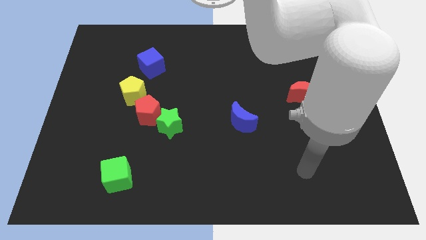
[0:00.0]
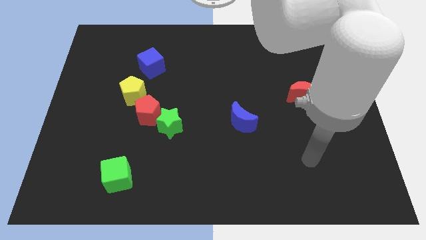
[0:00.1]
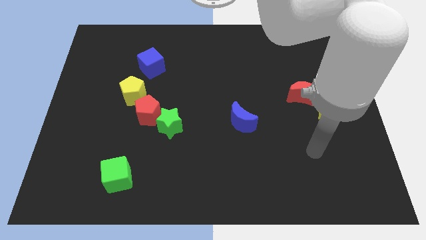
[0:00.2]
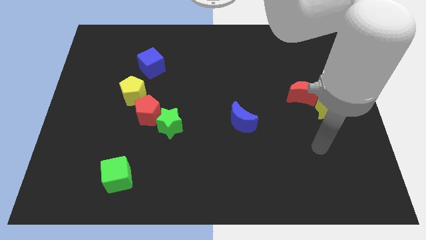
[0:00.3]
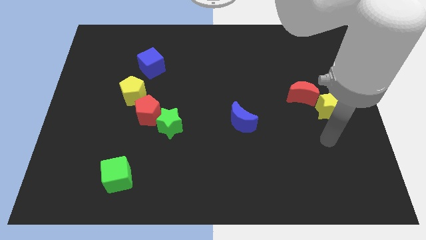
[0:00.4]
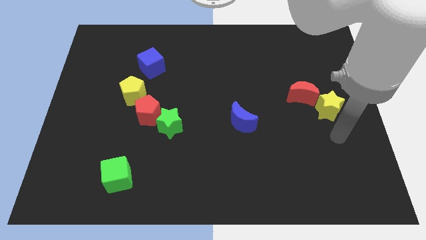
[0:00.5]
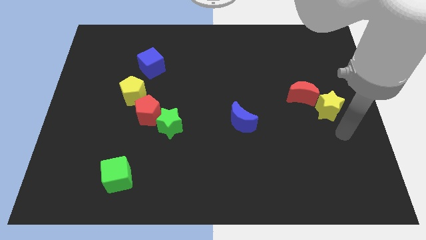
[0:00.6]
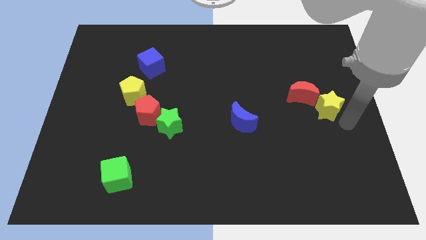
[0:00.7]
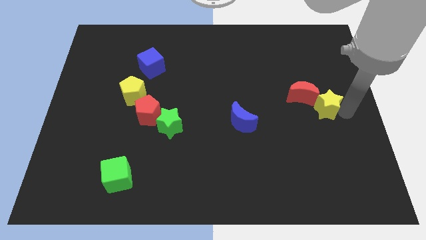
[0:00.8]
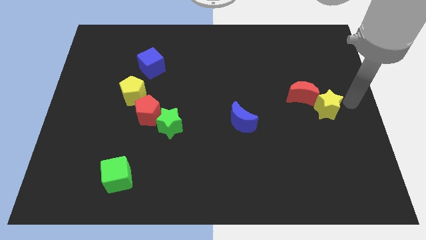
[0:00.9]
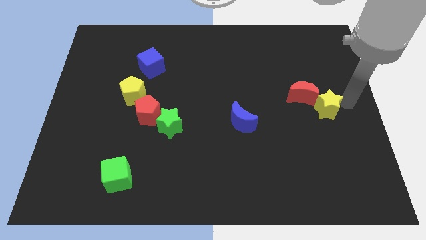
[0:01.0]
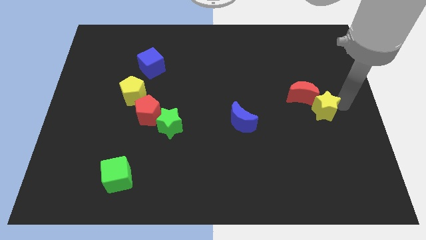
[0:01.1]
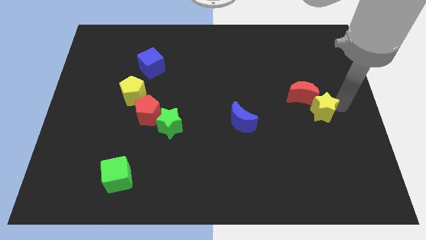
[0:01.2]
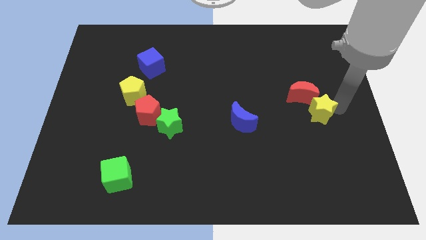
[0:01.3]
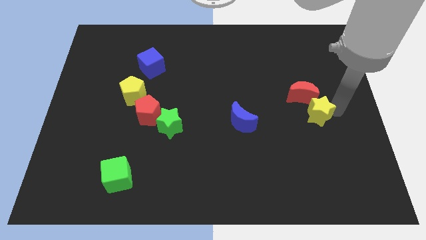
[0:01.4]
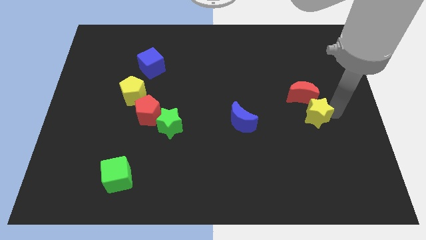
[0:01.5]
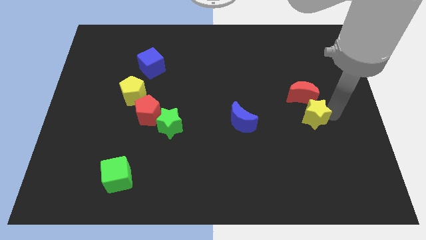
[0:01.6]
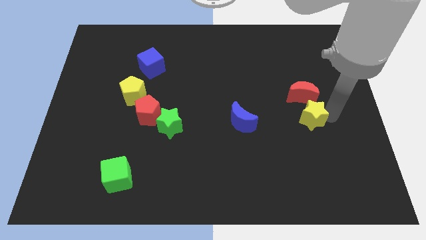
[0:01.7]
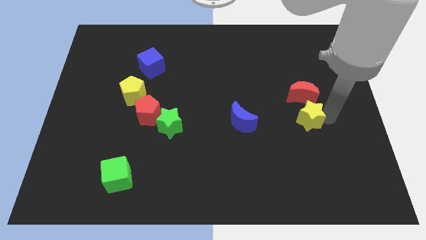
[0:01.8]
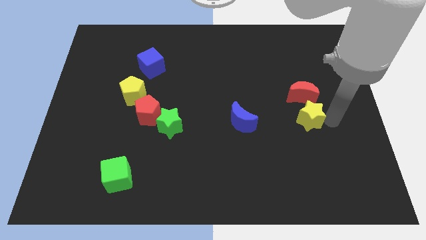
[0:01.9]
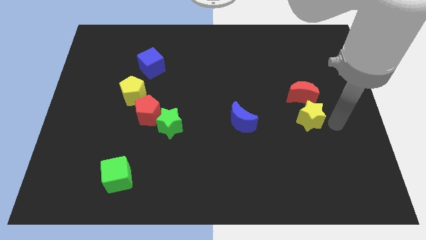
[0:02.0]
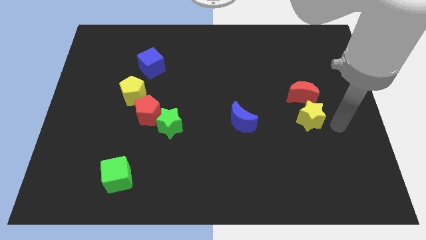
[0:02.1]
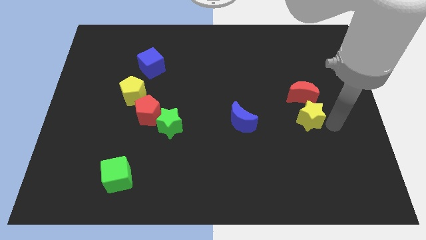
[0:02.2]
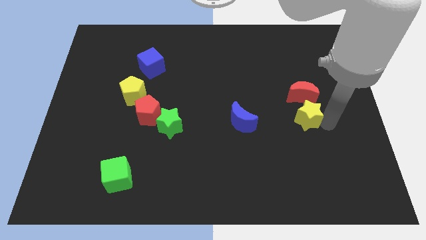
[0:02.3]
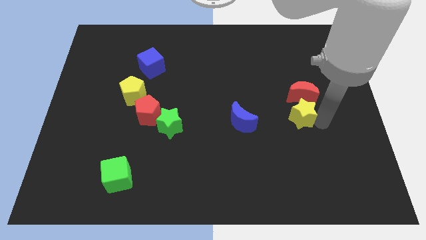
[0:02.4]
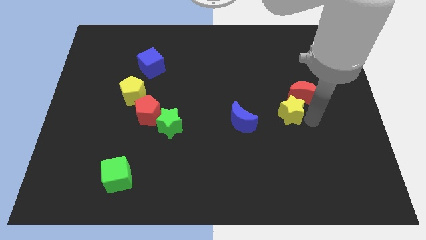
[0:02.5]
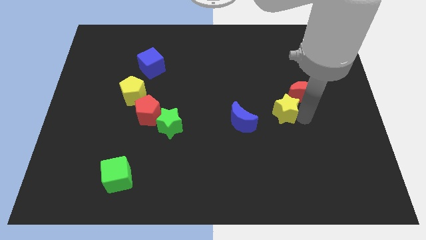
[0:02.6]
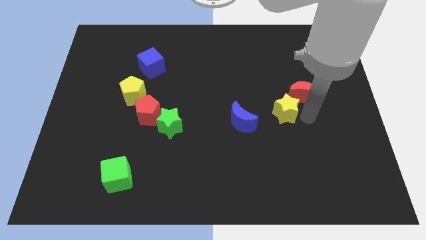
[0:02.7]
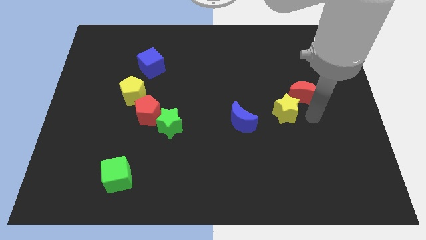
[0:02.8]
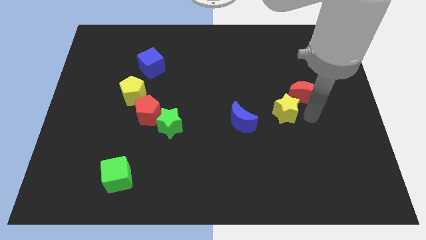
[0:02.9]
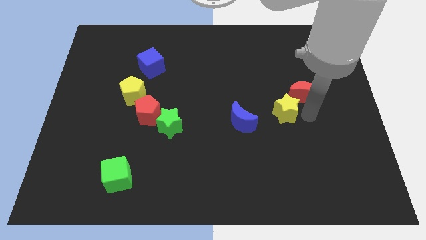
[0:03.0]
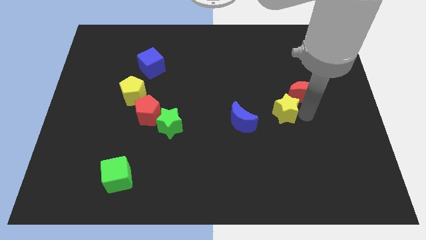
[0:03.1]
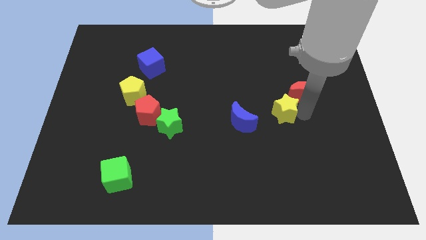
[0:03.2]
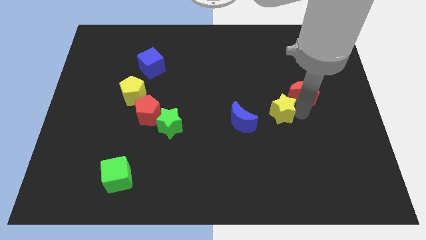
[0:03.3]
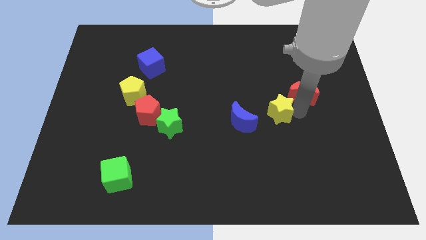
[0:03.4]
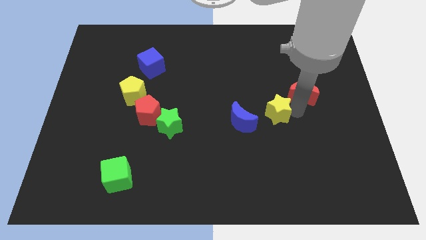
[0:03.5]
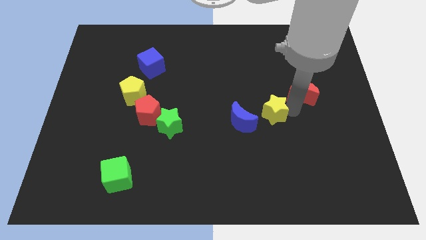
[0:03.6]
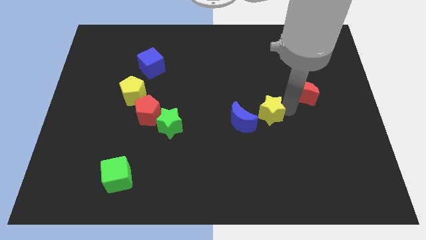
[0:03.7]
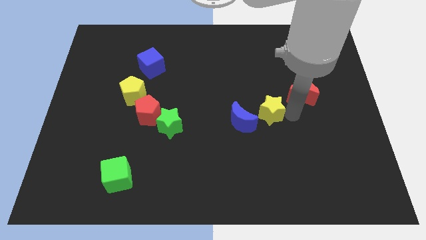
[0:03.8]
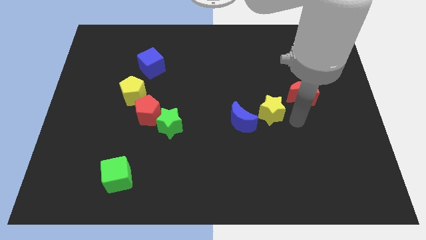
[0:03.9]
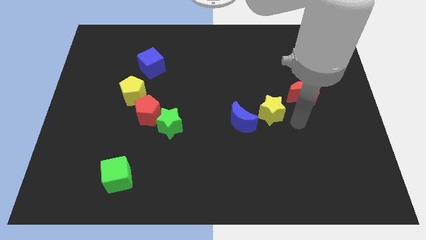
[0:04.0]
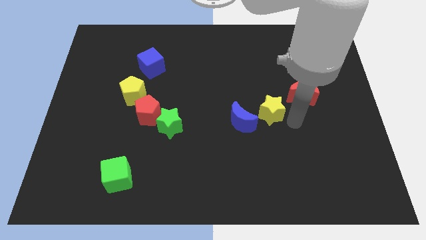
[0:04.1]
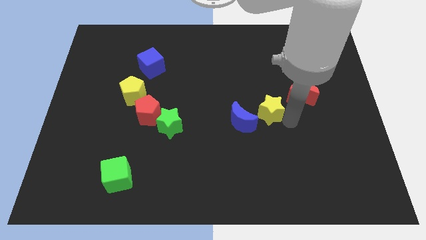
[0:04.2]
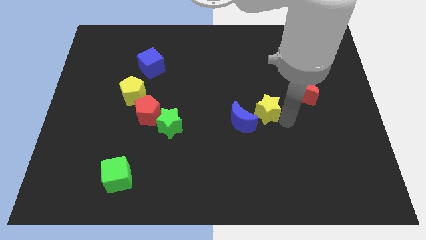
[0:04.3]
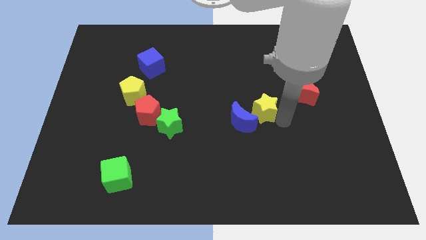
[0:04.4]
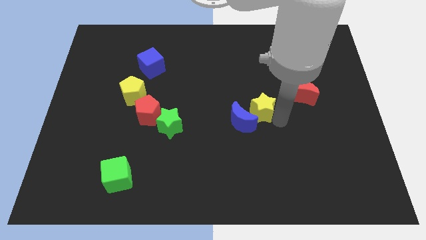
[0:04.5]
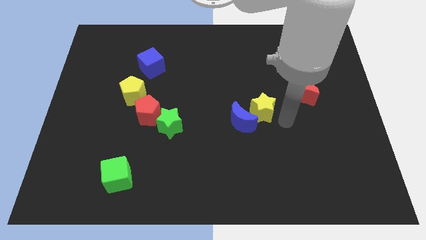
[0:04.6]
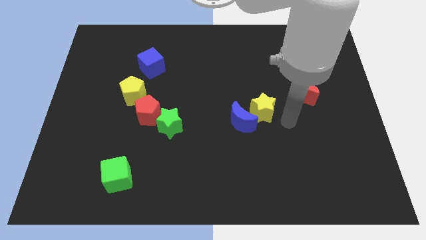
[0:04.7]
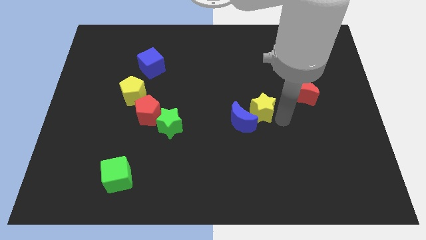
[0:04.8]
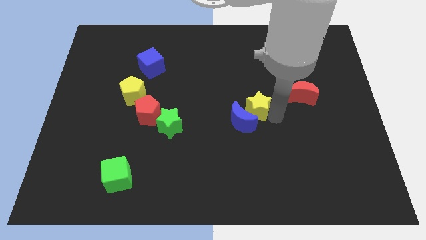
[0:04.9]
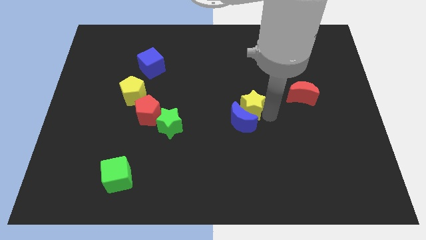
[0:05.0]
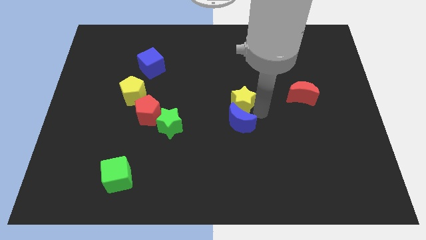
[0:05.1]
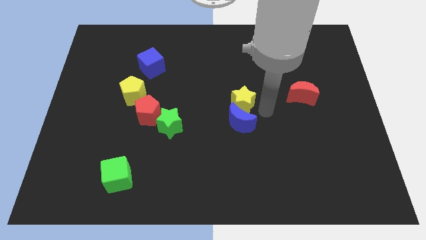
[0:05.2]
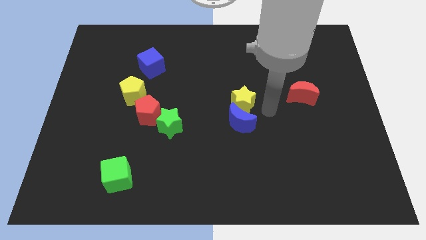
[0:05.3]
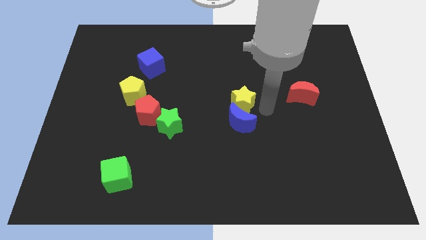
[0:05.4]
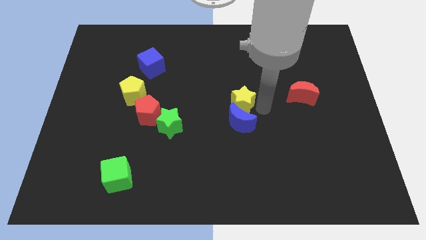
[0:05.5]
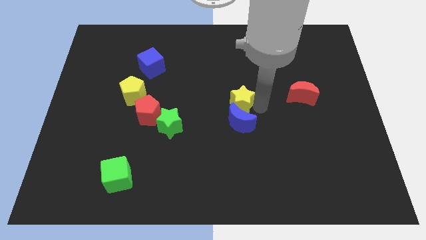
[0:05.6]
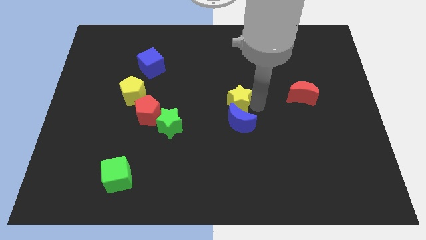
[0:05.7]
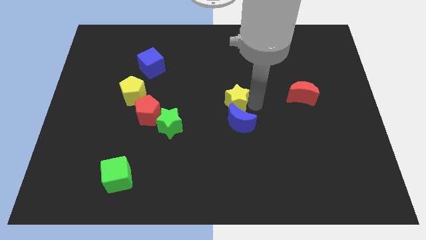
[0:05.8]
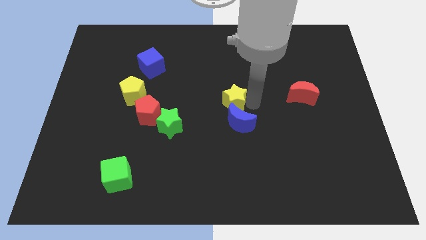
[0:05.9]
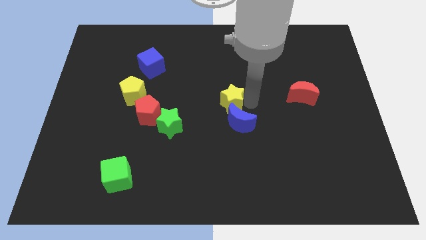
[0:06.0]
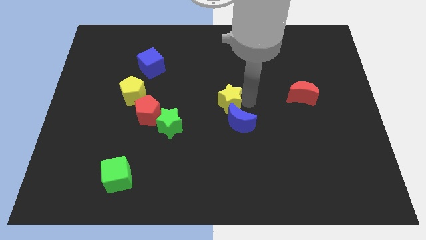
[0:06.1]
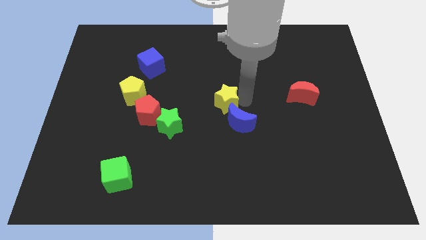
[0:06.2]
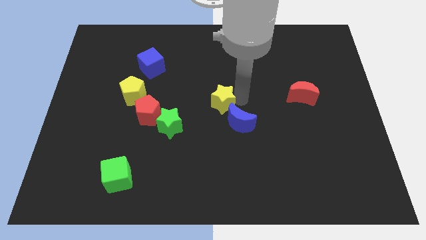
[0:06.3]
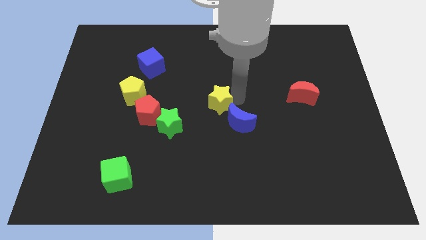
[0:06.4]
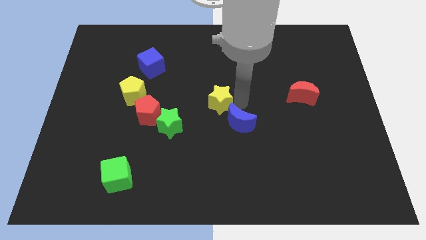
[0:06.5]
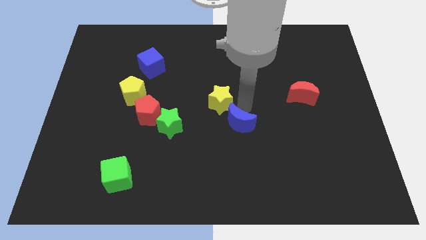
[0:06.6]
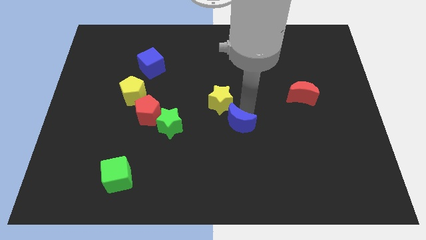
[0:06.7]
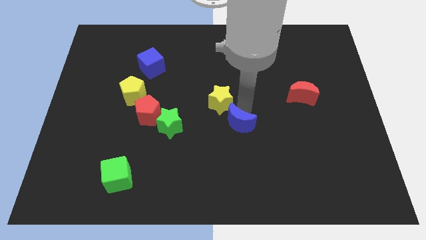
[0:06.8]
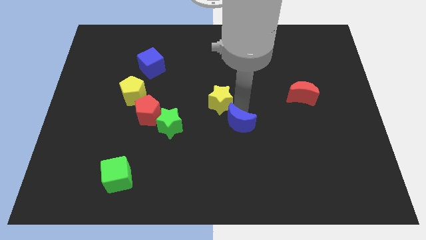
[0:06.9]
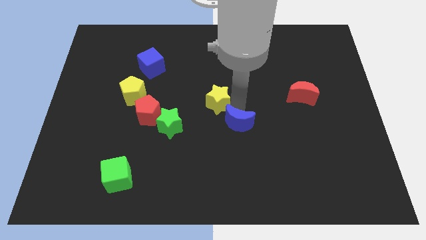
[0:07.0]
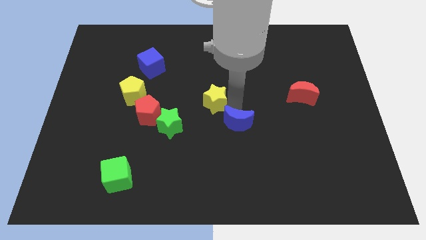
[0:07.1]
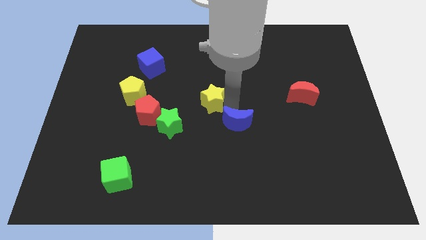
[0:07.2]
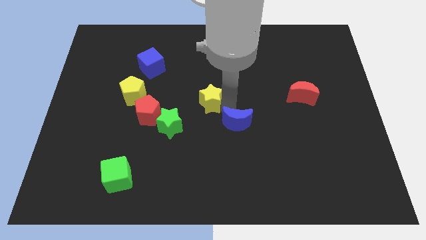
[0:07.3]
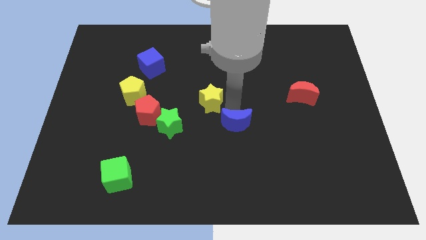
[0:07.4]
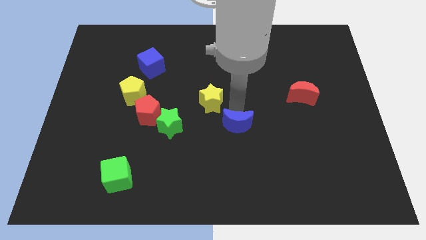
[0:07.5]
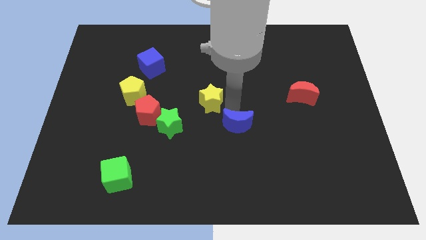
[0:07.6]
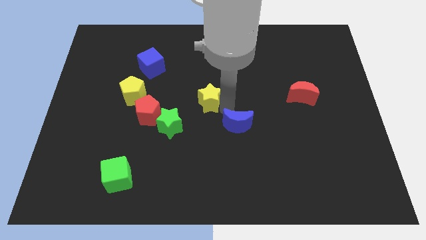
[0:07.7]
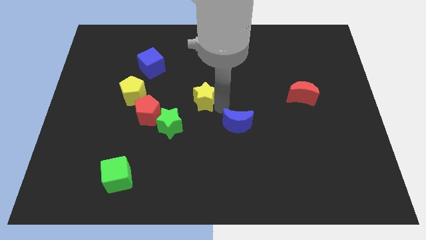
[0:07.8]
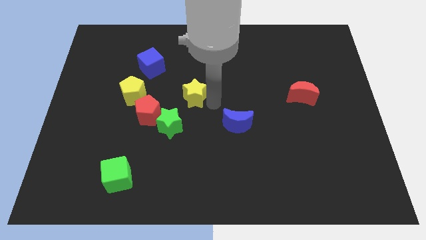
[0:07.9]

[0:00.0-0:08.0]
slide the yellow star to the top right of the red pentagon

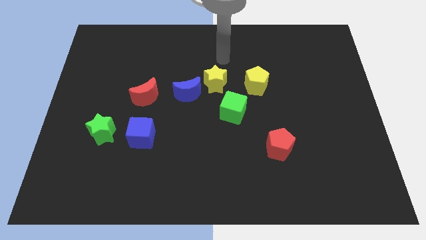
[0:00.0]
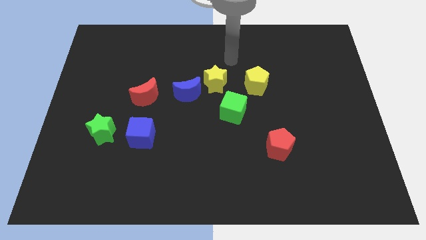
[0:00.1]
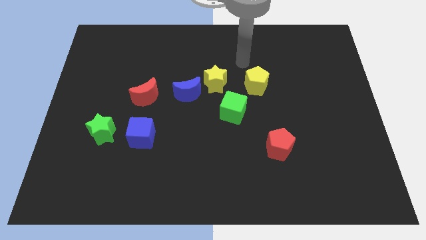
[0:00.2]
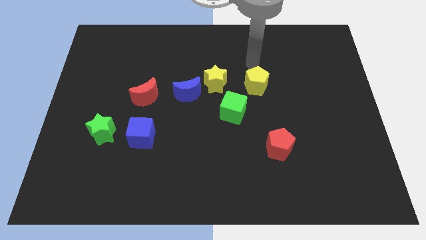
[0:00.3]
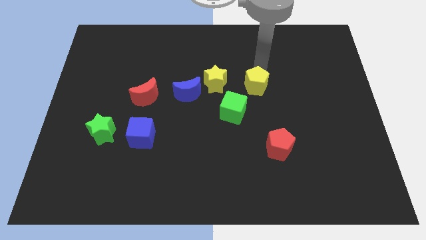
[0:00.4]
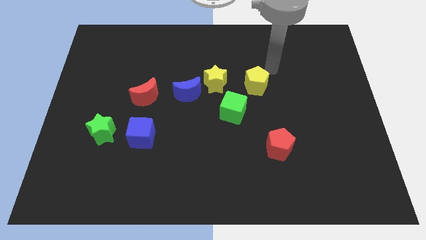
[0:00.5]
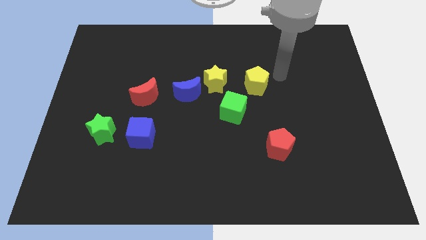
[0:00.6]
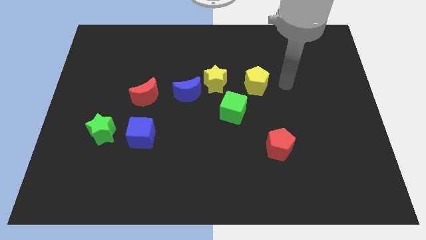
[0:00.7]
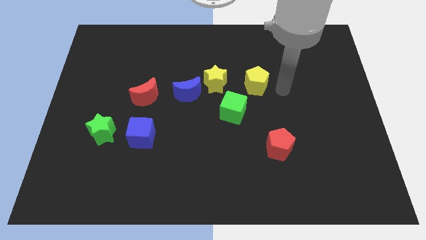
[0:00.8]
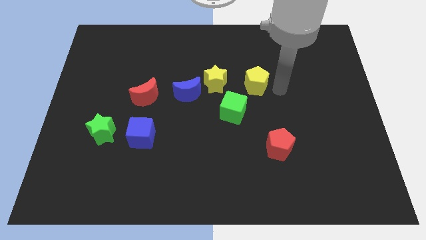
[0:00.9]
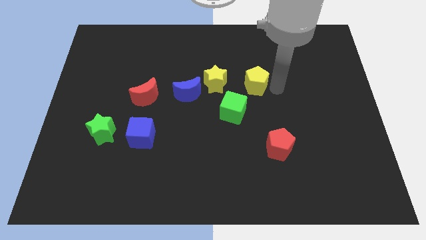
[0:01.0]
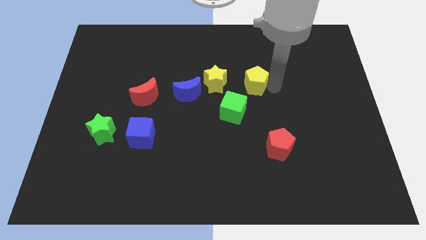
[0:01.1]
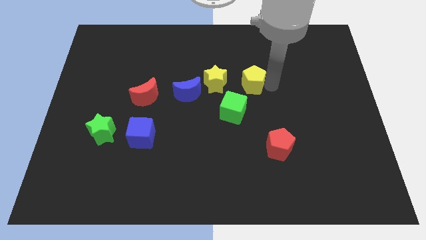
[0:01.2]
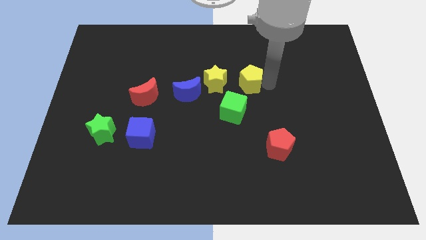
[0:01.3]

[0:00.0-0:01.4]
put the yellow pentagon above the green cube
